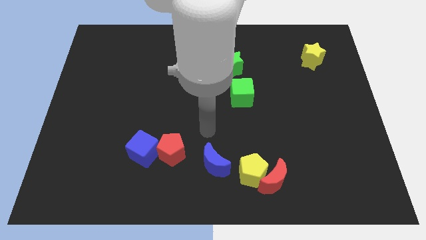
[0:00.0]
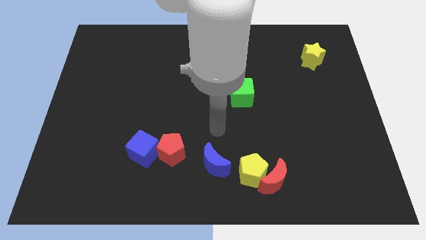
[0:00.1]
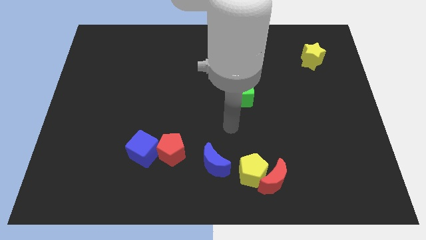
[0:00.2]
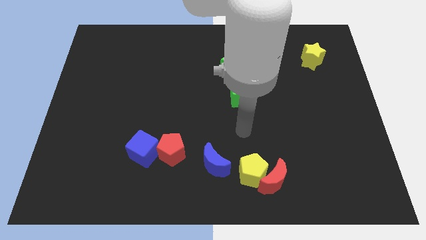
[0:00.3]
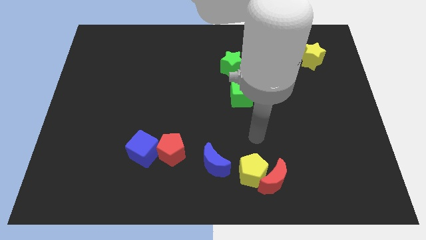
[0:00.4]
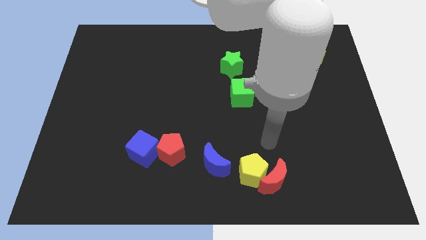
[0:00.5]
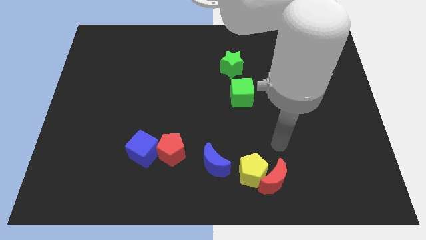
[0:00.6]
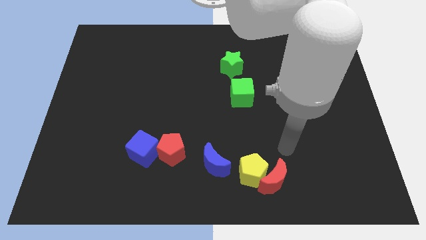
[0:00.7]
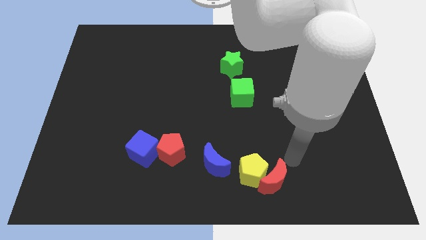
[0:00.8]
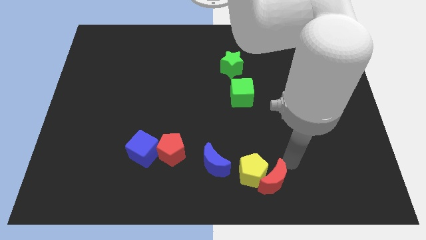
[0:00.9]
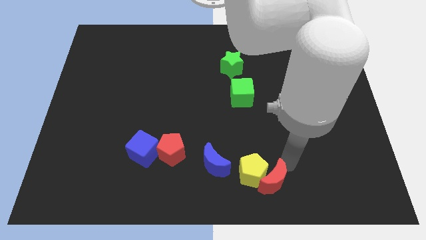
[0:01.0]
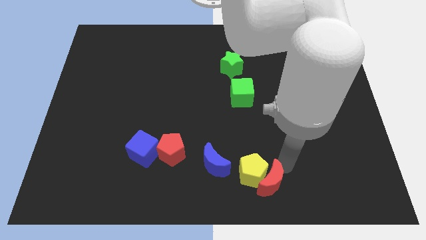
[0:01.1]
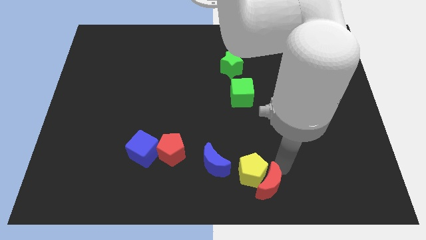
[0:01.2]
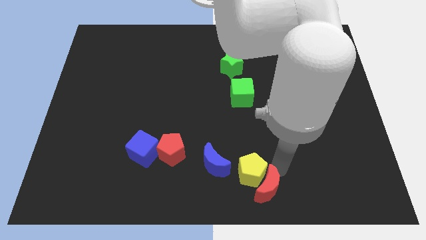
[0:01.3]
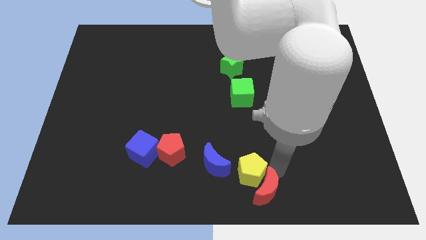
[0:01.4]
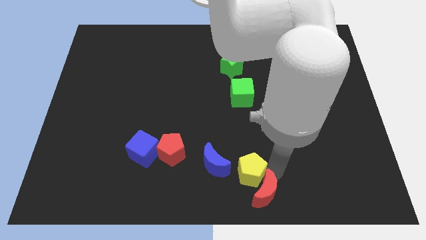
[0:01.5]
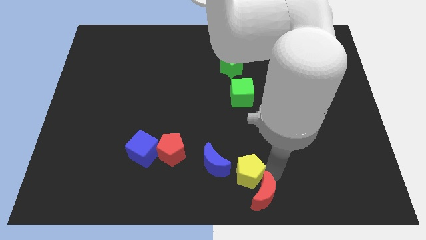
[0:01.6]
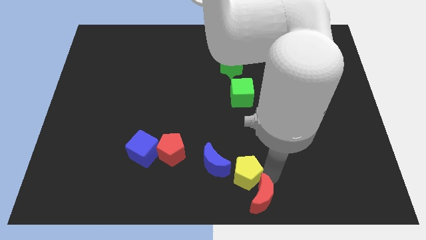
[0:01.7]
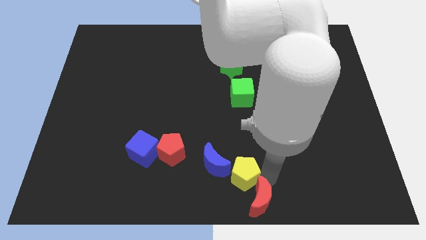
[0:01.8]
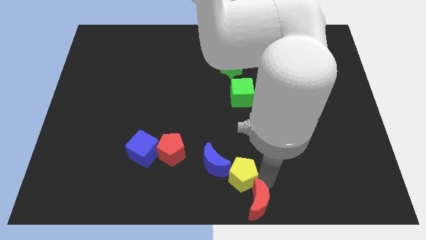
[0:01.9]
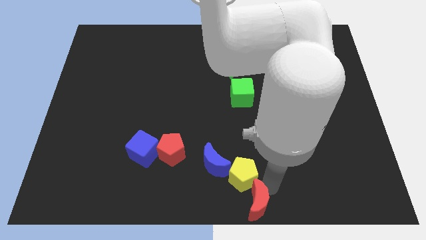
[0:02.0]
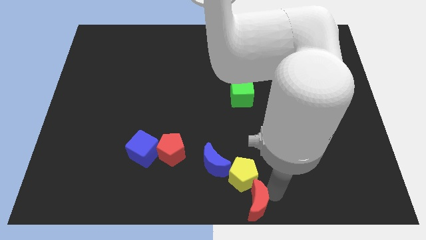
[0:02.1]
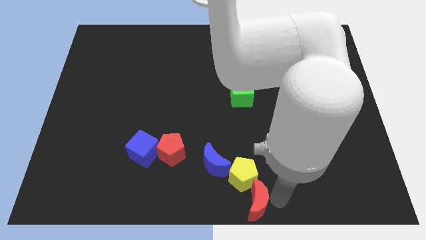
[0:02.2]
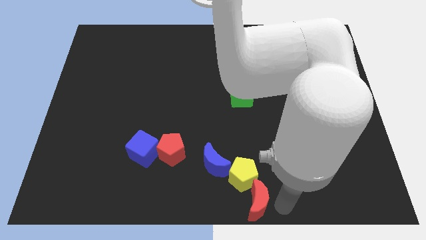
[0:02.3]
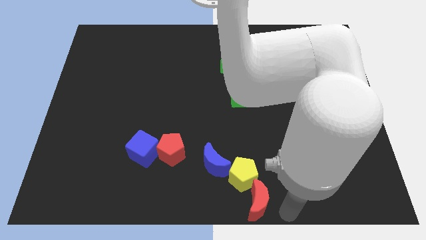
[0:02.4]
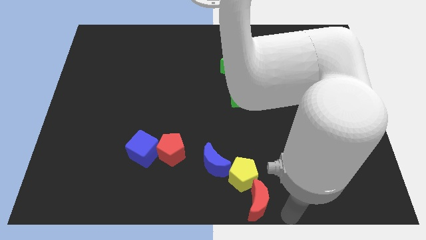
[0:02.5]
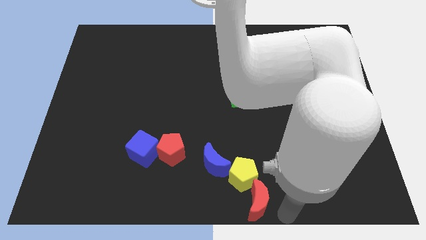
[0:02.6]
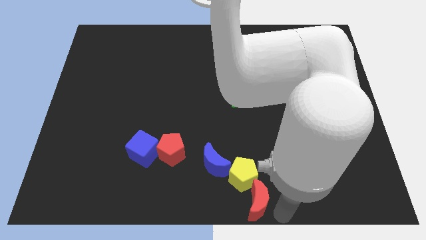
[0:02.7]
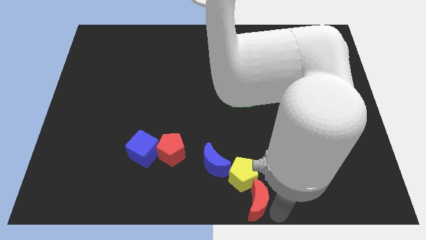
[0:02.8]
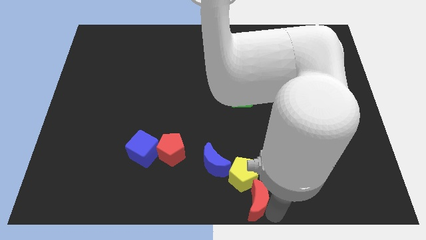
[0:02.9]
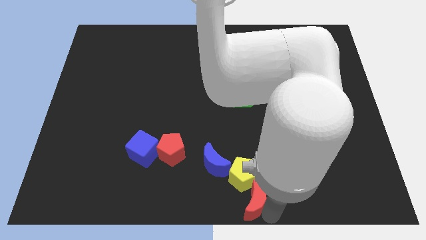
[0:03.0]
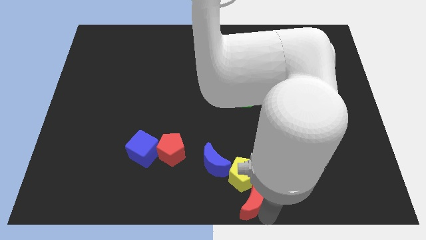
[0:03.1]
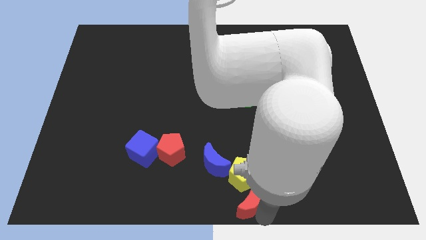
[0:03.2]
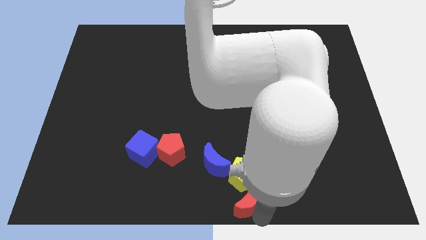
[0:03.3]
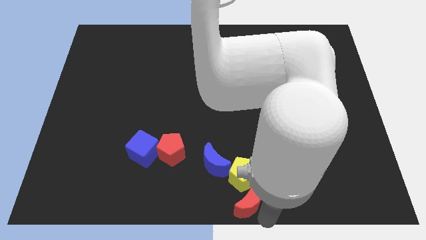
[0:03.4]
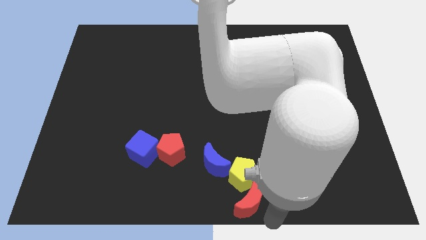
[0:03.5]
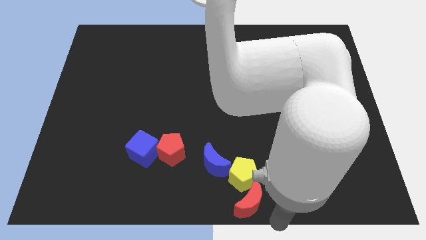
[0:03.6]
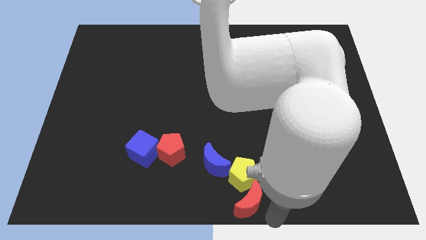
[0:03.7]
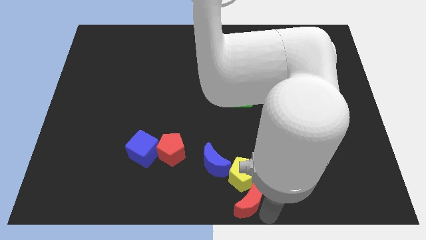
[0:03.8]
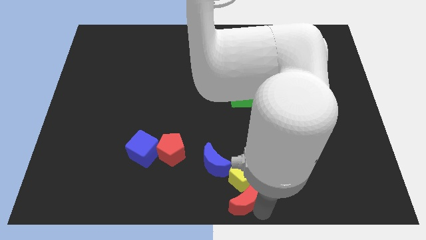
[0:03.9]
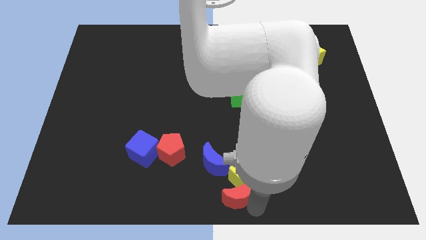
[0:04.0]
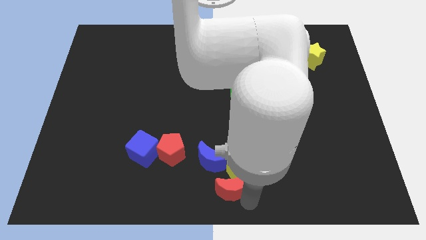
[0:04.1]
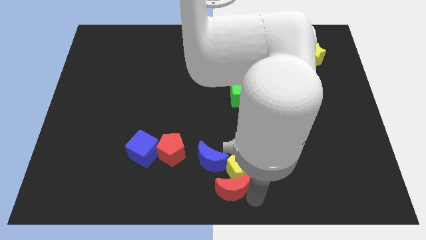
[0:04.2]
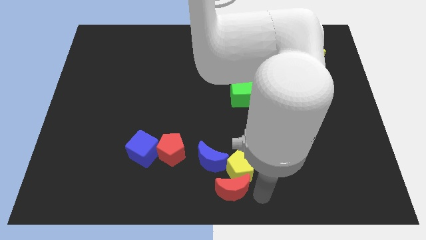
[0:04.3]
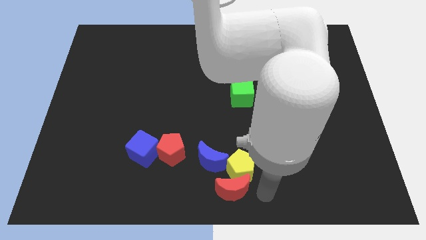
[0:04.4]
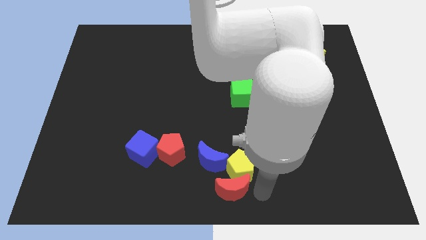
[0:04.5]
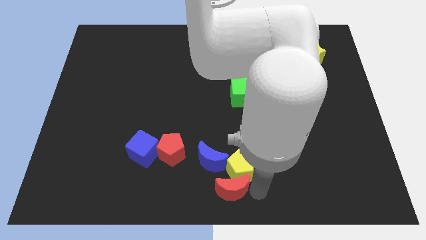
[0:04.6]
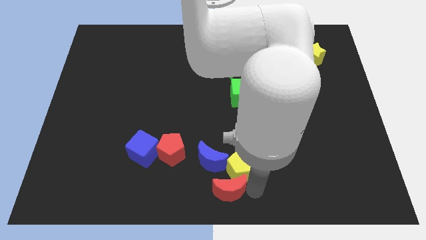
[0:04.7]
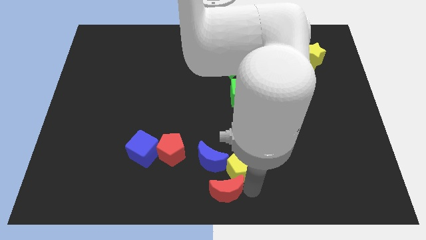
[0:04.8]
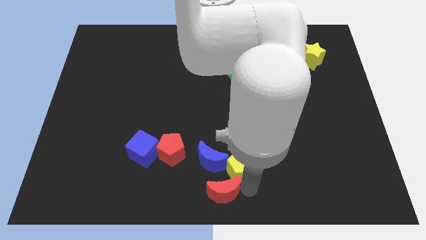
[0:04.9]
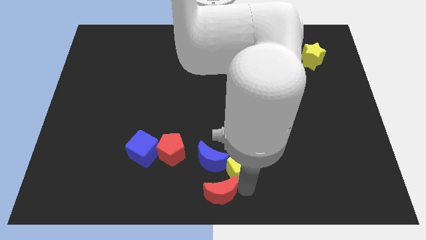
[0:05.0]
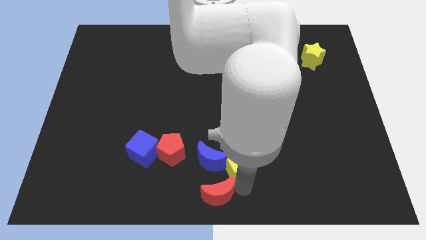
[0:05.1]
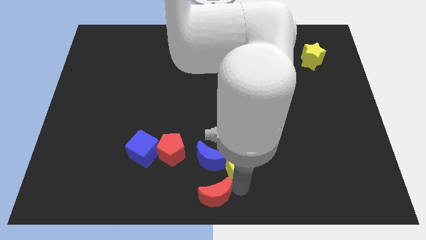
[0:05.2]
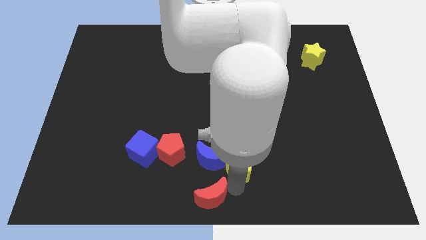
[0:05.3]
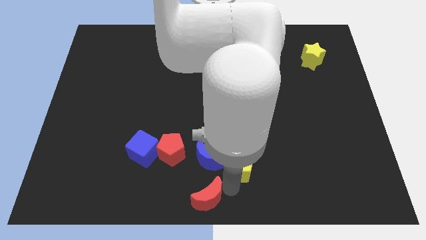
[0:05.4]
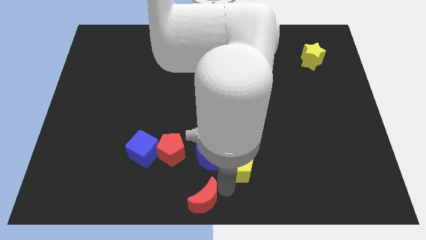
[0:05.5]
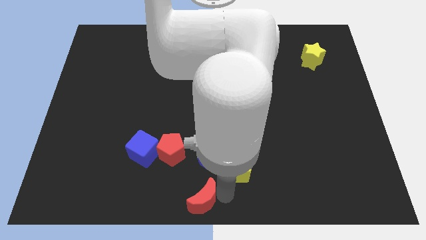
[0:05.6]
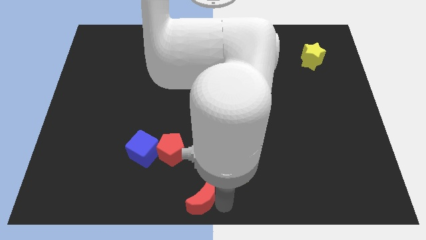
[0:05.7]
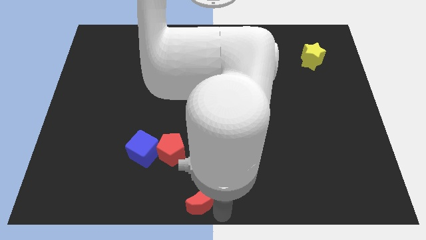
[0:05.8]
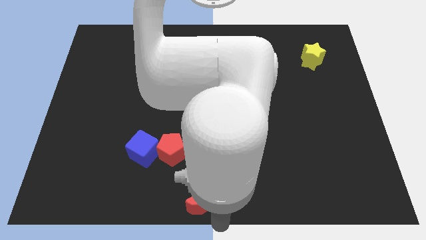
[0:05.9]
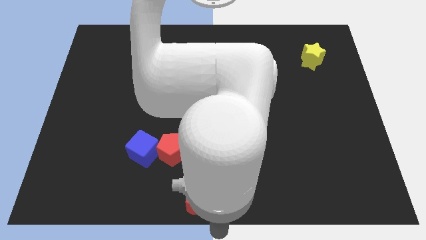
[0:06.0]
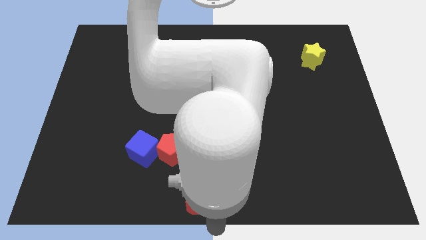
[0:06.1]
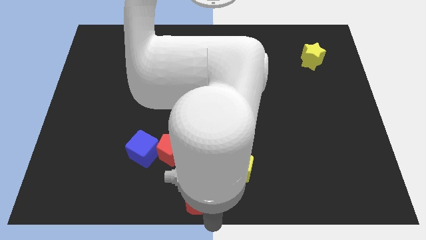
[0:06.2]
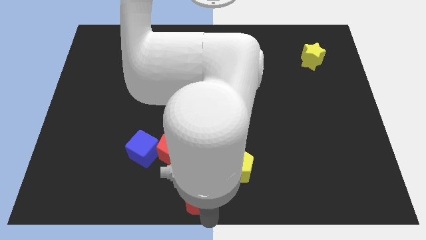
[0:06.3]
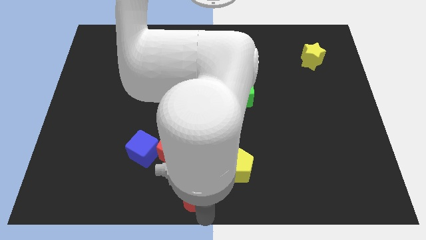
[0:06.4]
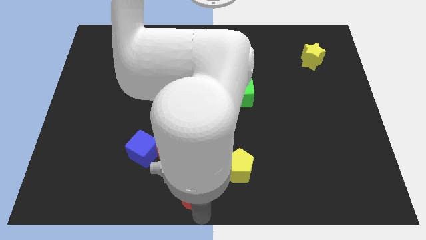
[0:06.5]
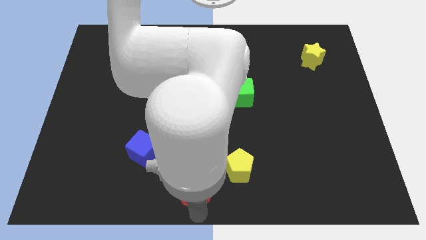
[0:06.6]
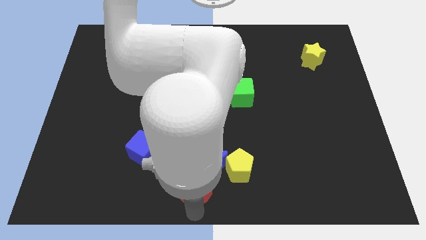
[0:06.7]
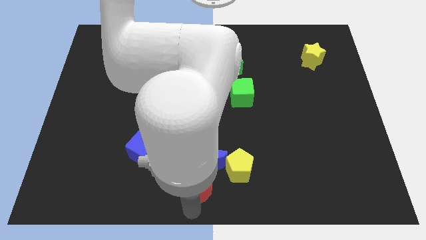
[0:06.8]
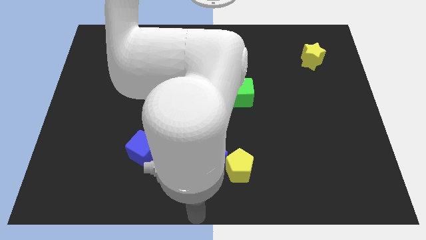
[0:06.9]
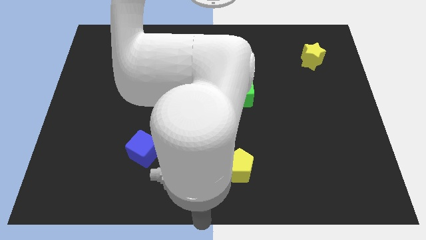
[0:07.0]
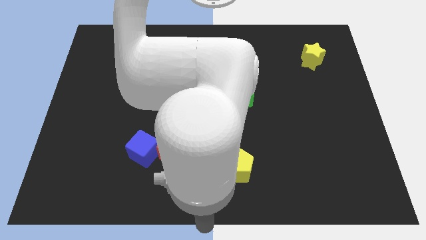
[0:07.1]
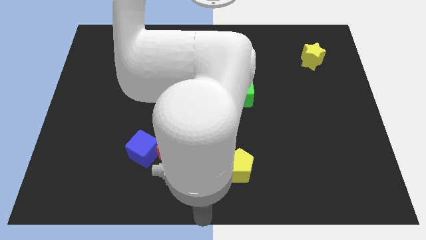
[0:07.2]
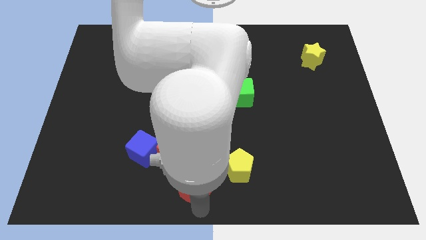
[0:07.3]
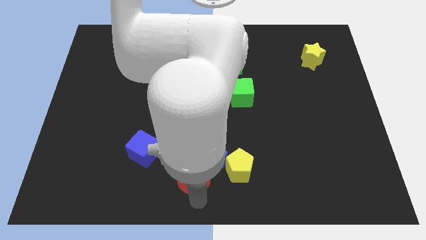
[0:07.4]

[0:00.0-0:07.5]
push the red moon just left of the yellow pentagon
